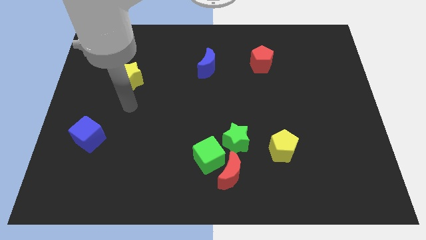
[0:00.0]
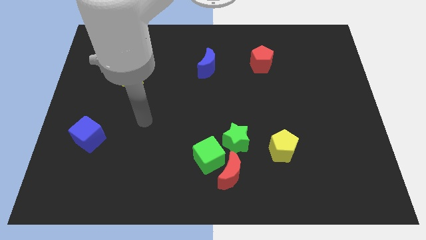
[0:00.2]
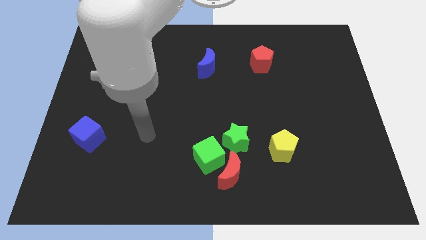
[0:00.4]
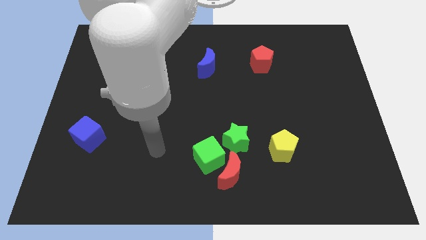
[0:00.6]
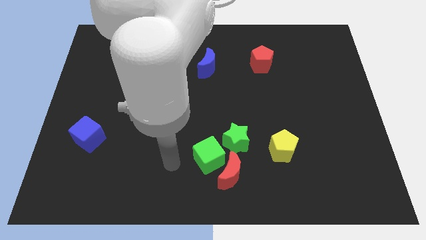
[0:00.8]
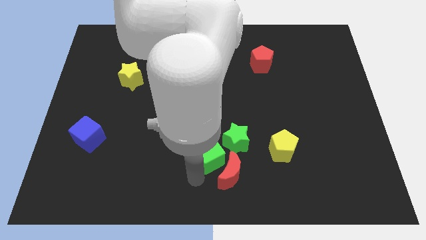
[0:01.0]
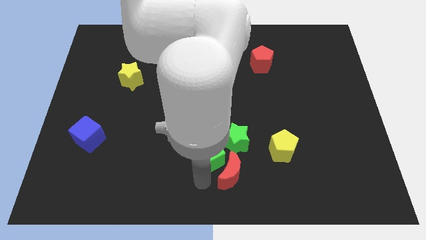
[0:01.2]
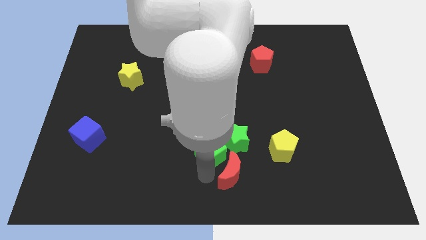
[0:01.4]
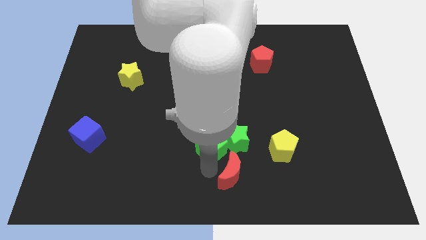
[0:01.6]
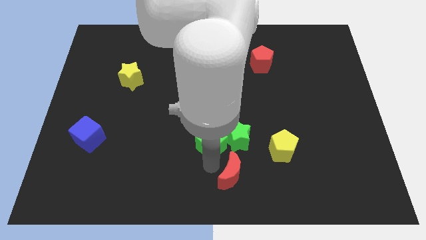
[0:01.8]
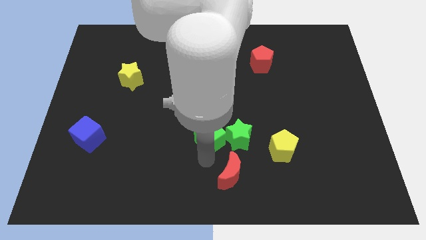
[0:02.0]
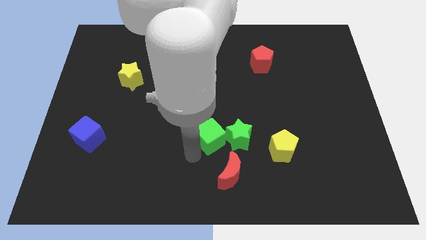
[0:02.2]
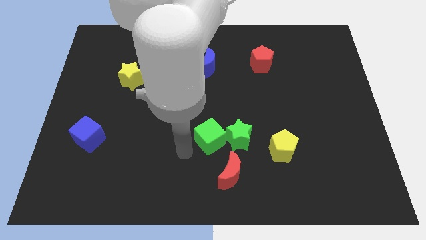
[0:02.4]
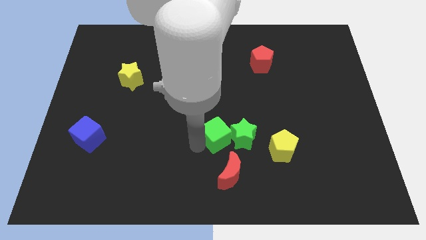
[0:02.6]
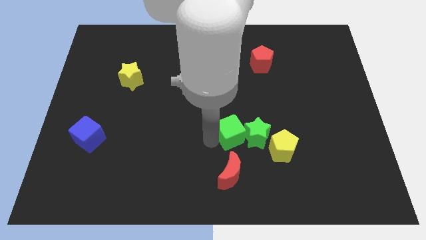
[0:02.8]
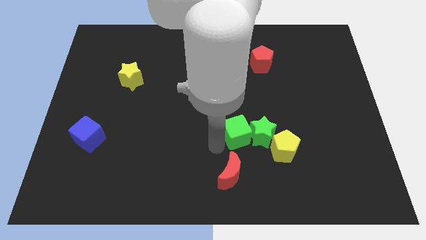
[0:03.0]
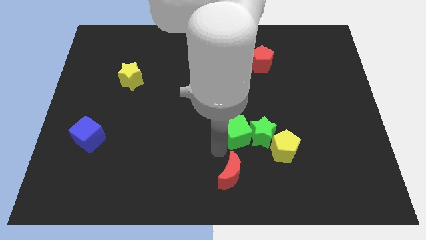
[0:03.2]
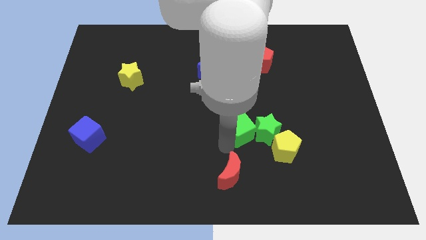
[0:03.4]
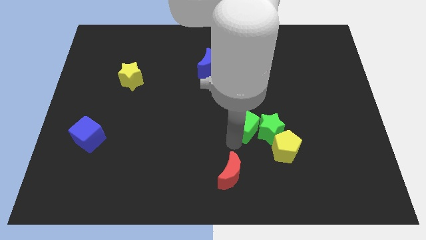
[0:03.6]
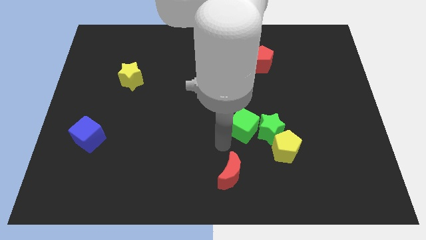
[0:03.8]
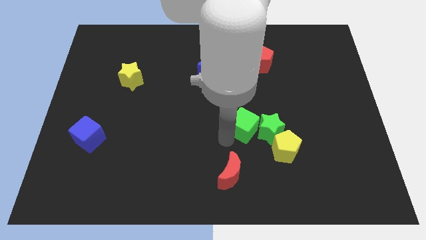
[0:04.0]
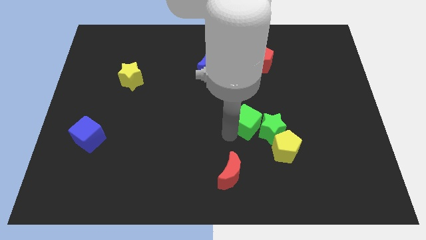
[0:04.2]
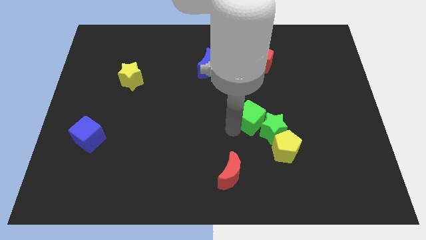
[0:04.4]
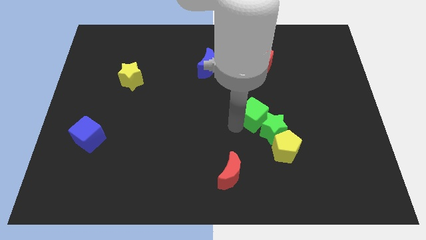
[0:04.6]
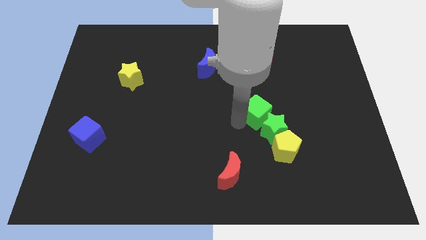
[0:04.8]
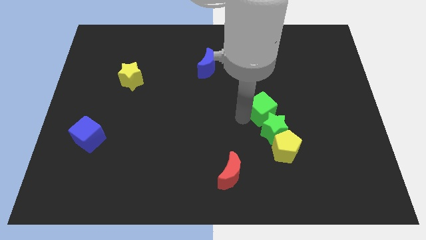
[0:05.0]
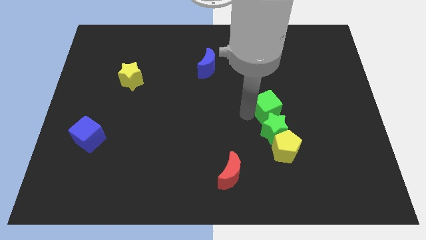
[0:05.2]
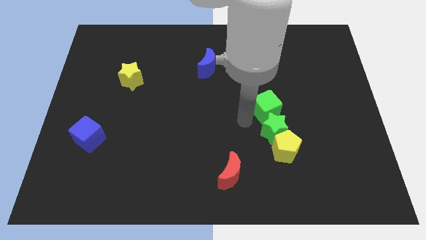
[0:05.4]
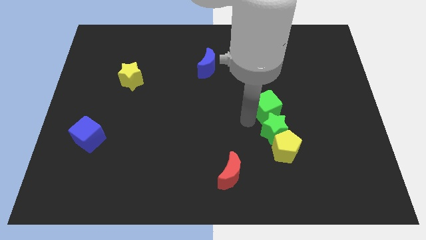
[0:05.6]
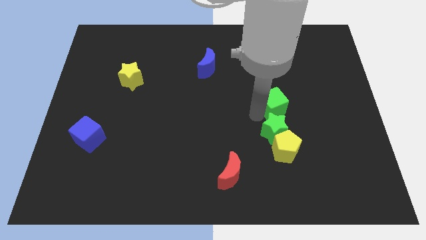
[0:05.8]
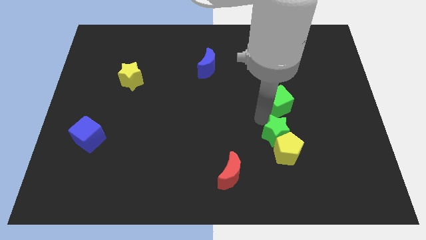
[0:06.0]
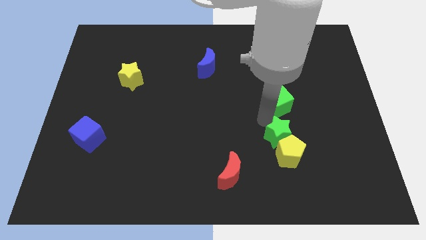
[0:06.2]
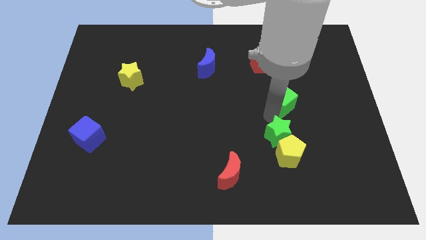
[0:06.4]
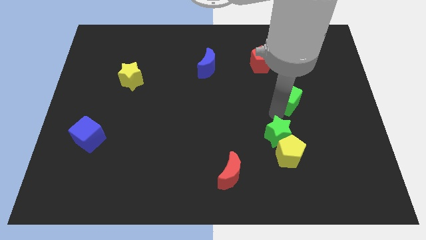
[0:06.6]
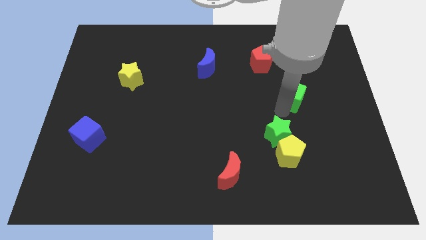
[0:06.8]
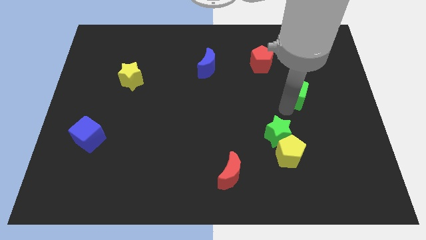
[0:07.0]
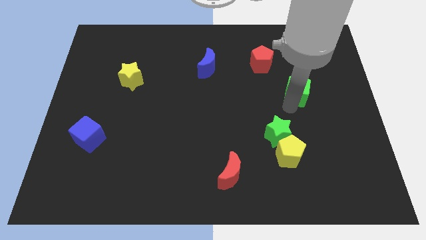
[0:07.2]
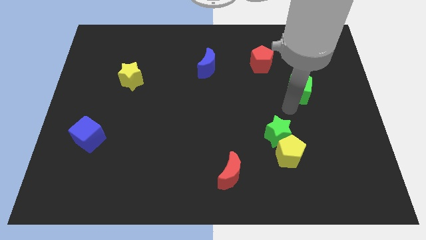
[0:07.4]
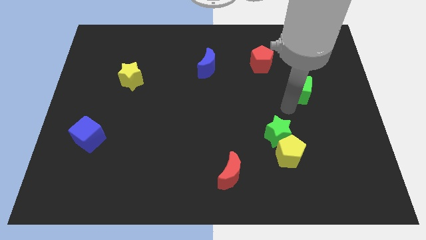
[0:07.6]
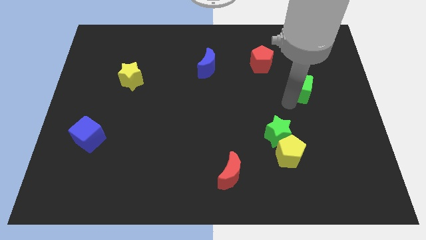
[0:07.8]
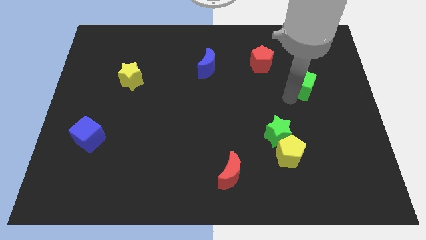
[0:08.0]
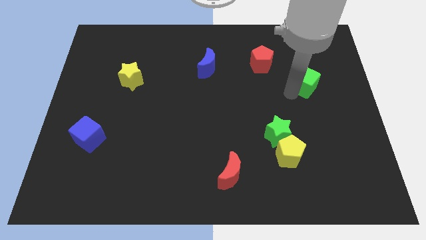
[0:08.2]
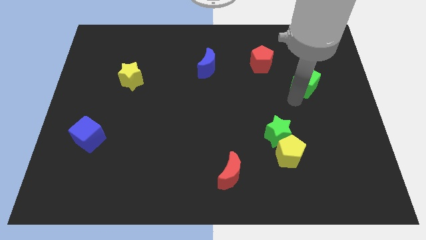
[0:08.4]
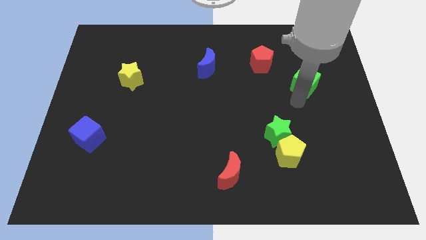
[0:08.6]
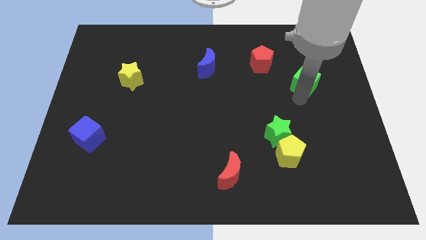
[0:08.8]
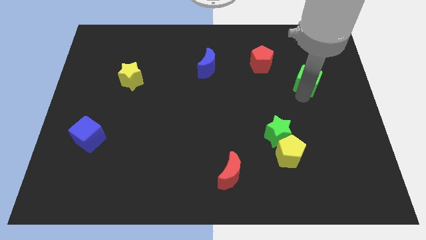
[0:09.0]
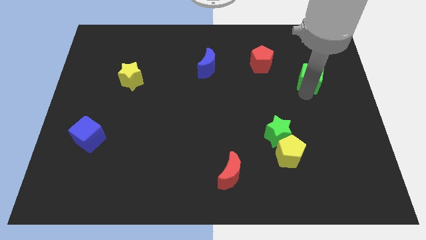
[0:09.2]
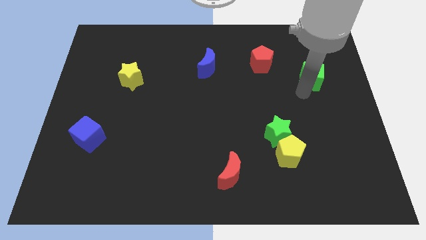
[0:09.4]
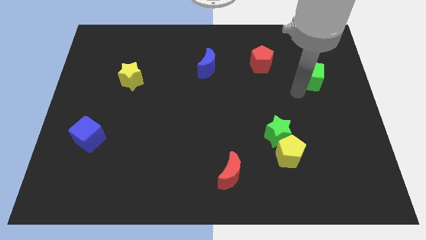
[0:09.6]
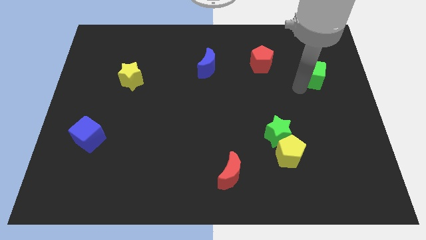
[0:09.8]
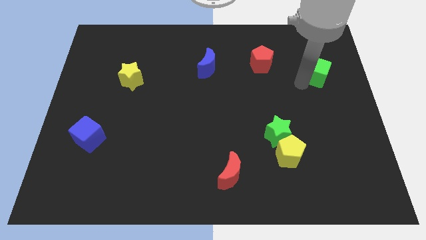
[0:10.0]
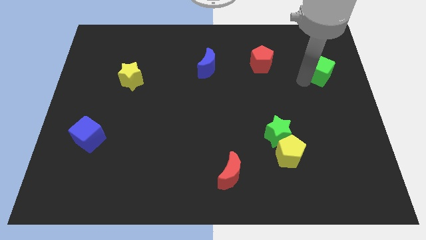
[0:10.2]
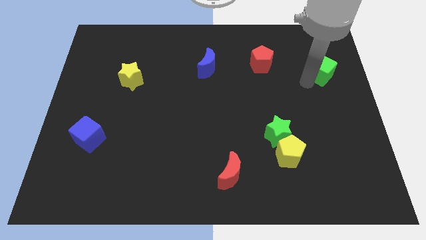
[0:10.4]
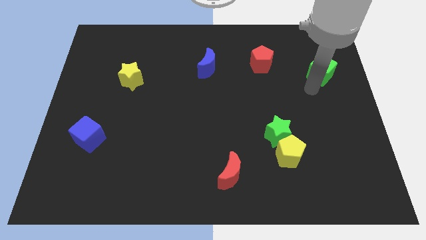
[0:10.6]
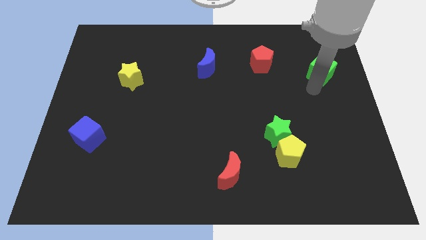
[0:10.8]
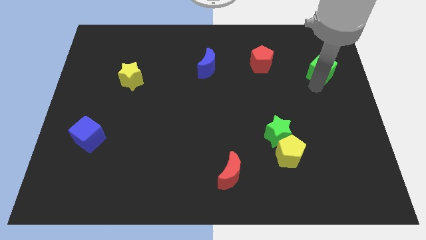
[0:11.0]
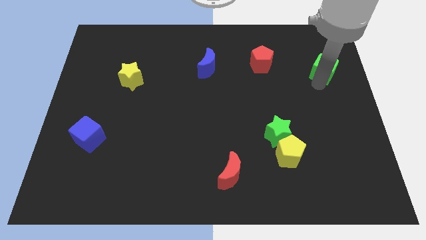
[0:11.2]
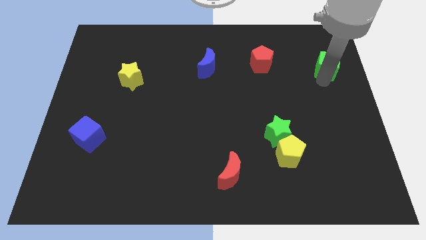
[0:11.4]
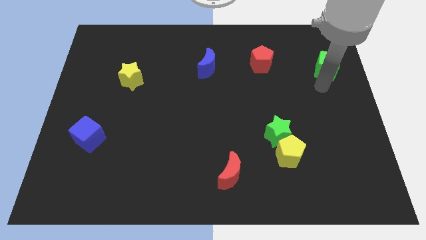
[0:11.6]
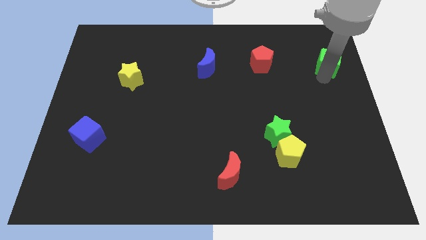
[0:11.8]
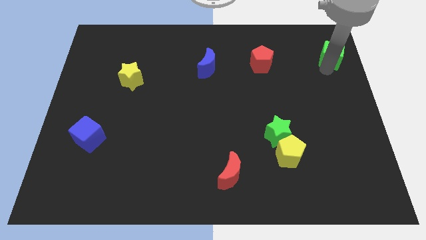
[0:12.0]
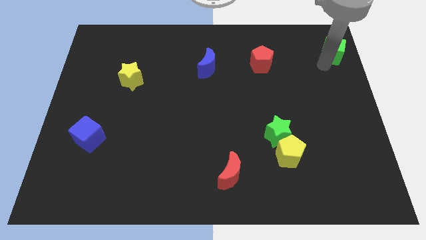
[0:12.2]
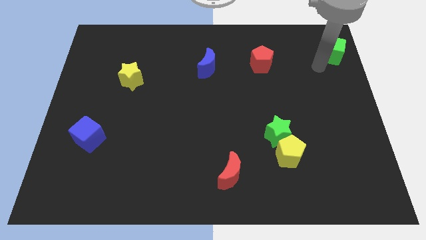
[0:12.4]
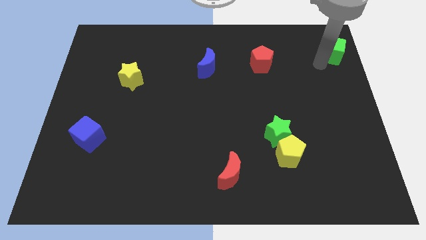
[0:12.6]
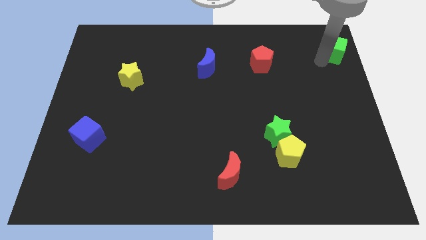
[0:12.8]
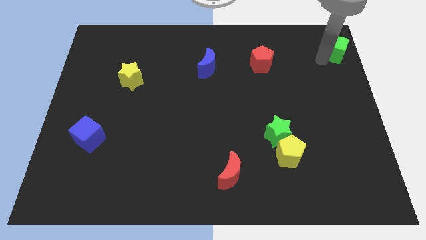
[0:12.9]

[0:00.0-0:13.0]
put the green cube to the top right
